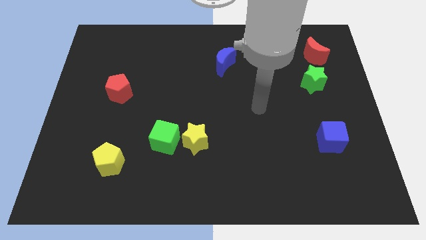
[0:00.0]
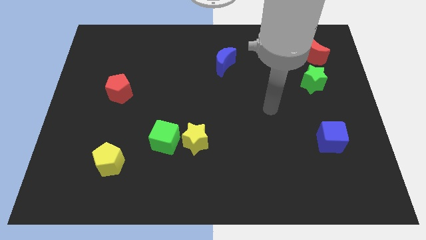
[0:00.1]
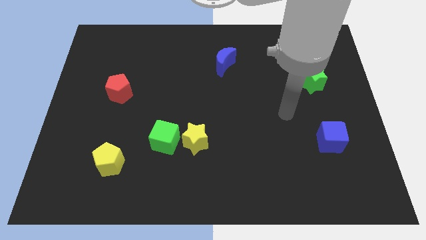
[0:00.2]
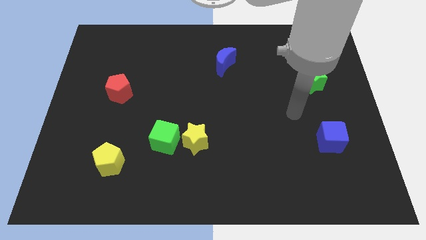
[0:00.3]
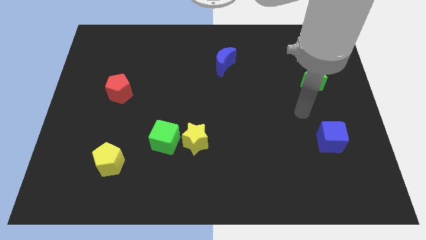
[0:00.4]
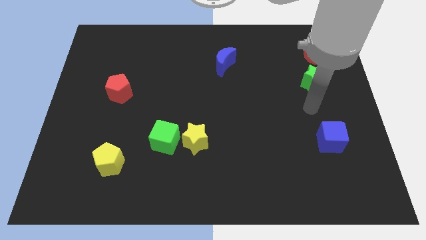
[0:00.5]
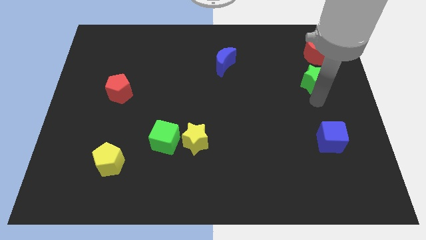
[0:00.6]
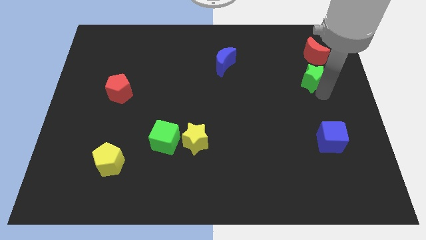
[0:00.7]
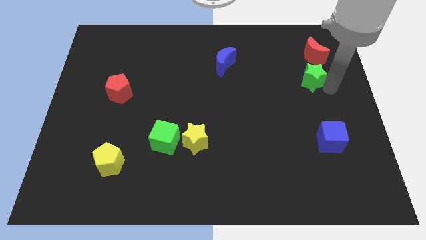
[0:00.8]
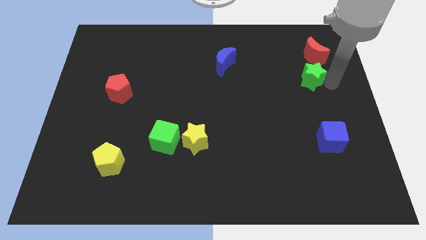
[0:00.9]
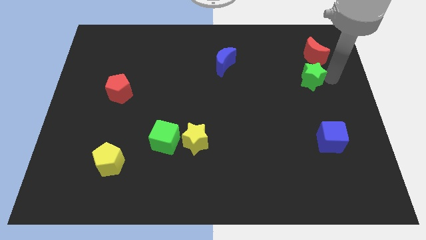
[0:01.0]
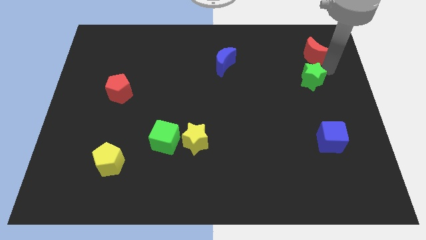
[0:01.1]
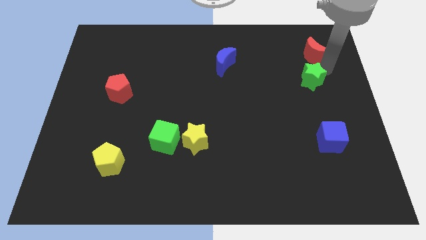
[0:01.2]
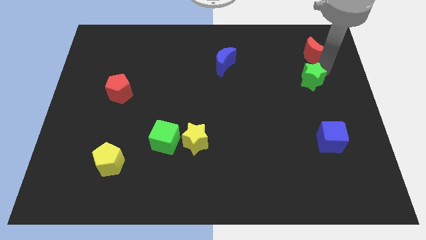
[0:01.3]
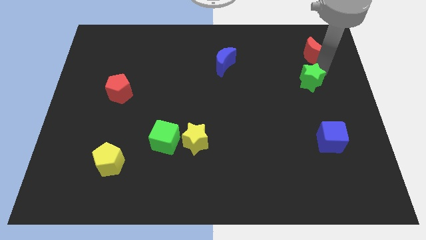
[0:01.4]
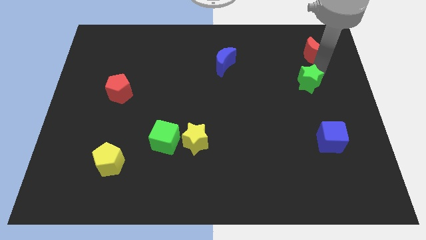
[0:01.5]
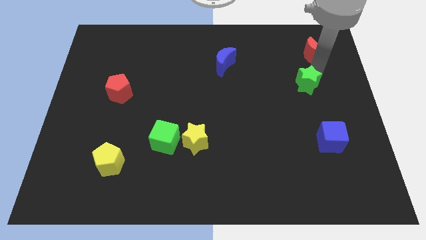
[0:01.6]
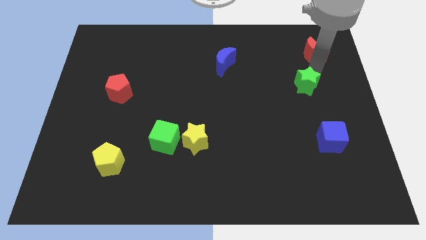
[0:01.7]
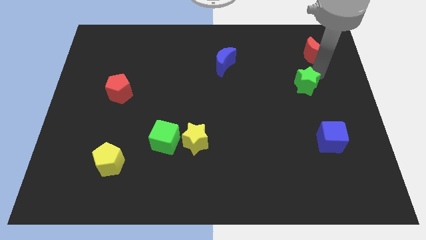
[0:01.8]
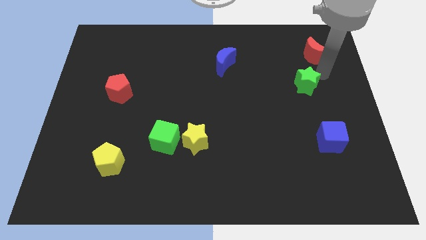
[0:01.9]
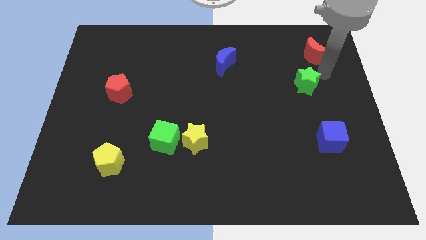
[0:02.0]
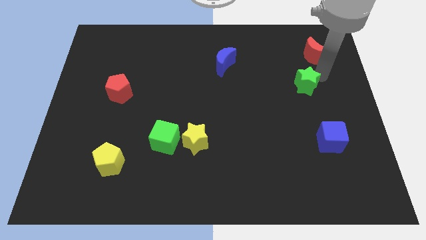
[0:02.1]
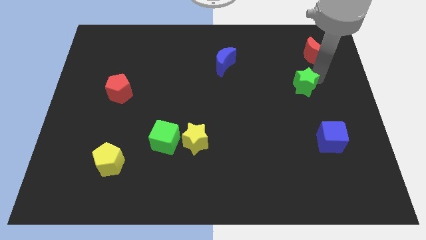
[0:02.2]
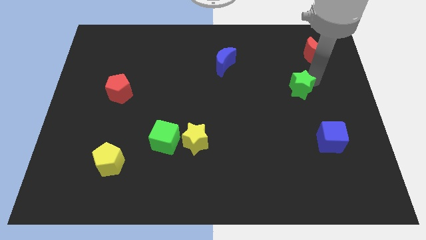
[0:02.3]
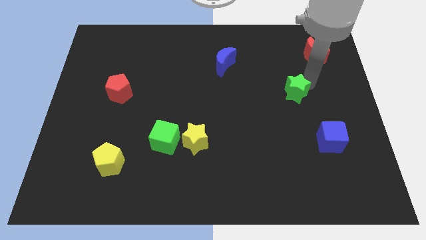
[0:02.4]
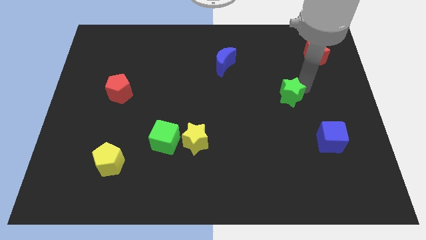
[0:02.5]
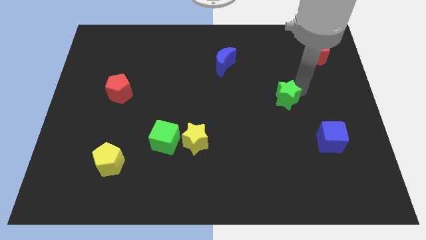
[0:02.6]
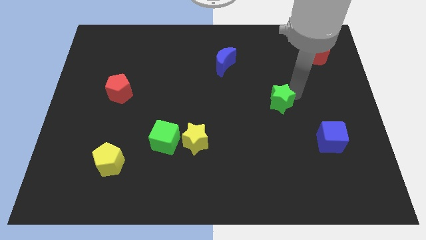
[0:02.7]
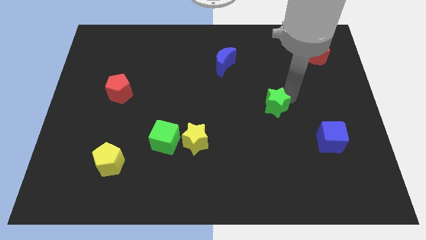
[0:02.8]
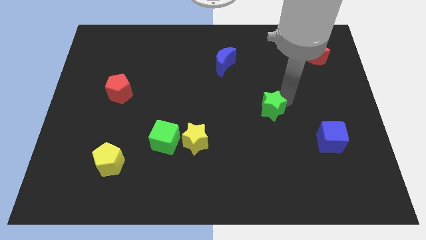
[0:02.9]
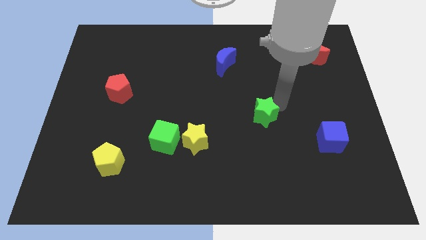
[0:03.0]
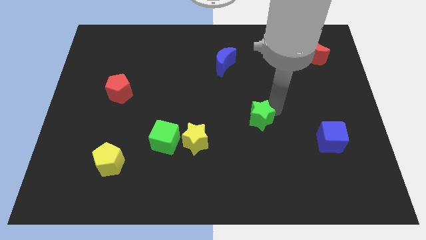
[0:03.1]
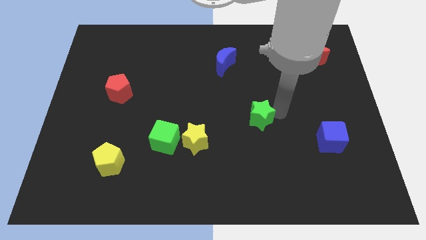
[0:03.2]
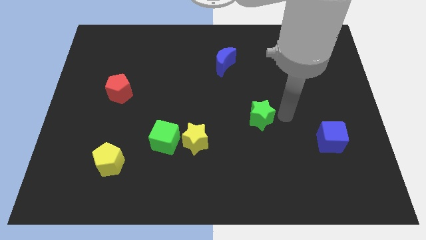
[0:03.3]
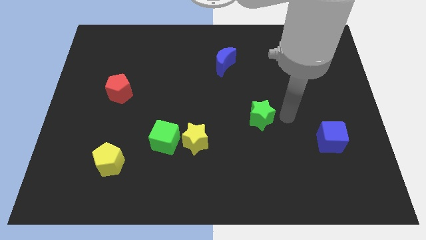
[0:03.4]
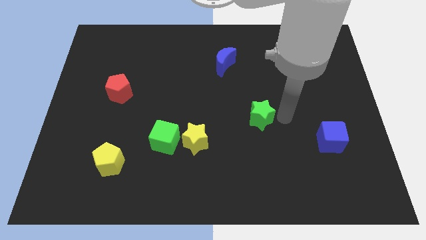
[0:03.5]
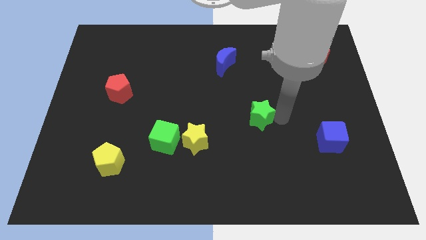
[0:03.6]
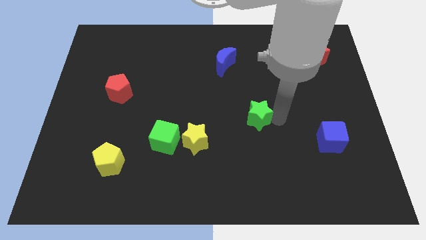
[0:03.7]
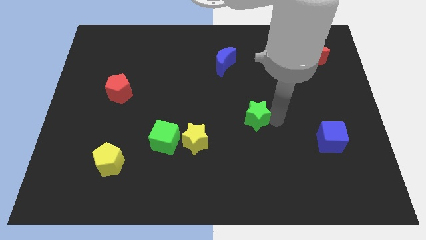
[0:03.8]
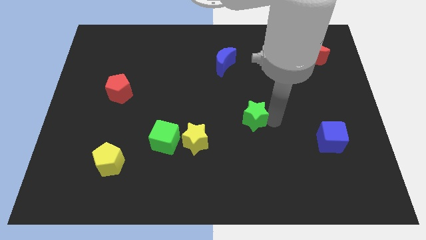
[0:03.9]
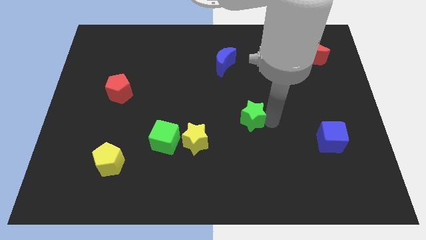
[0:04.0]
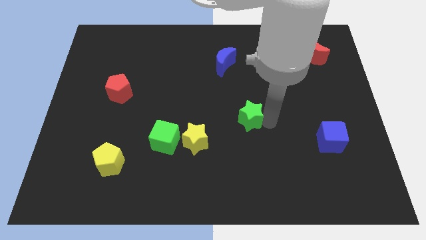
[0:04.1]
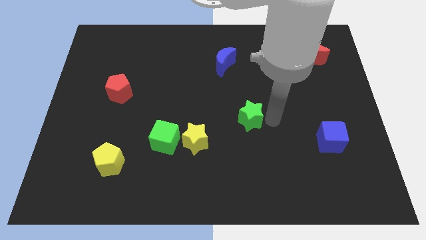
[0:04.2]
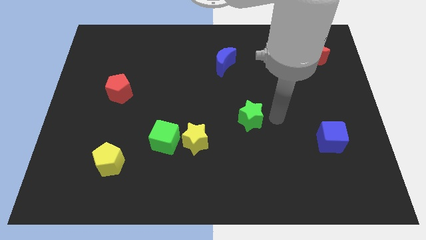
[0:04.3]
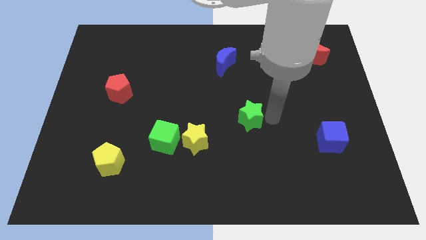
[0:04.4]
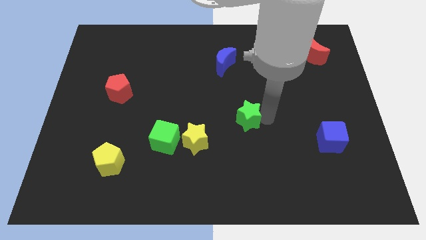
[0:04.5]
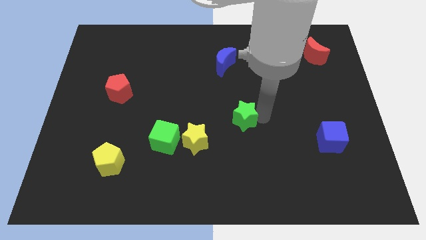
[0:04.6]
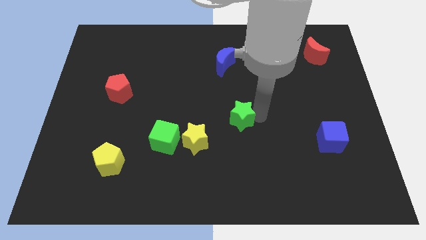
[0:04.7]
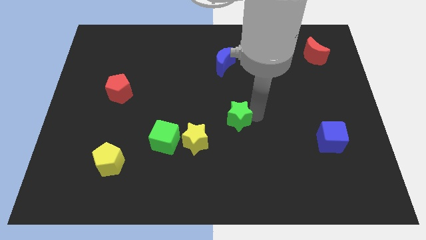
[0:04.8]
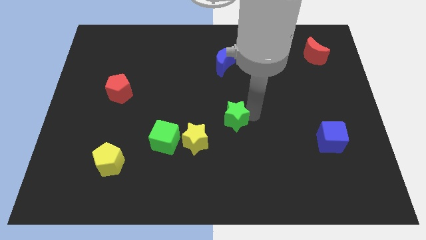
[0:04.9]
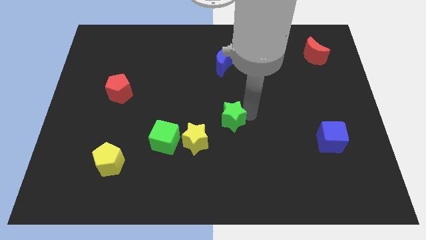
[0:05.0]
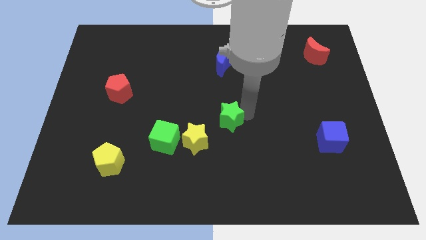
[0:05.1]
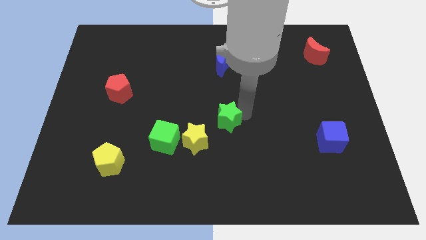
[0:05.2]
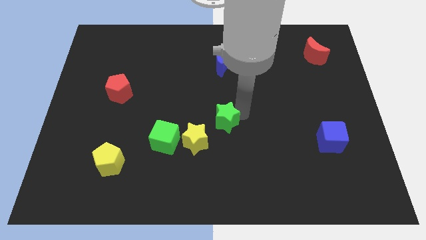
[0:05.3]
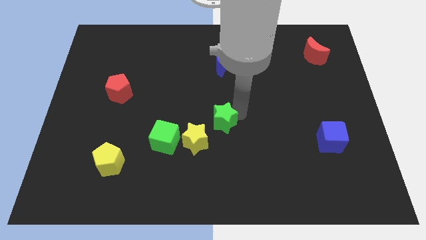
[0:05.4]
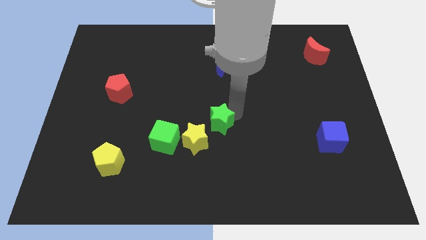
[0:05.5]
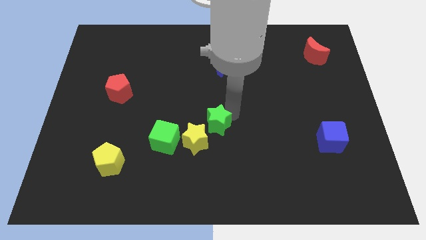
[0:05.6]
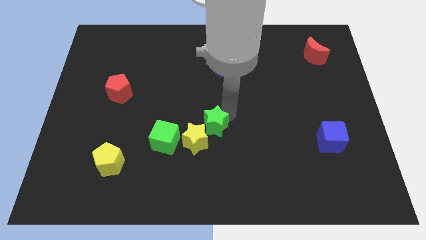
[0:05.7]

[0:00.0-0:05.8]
move the green star towards the yellow star

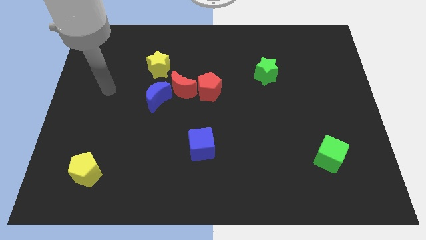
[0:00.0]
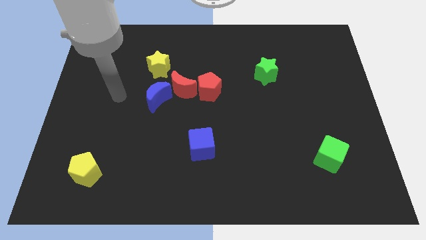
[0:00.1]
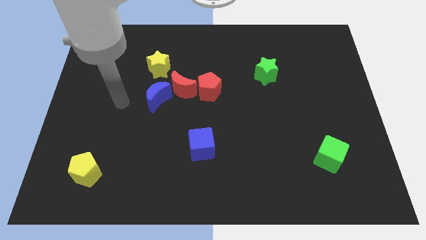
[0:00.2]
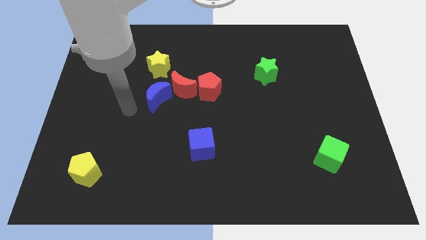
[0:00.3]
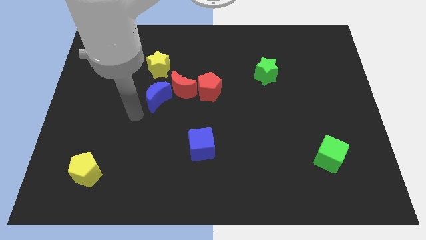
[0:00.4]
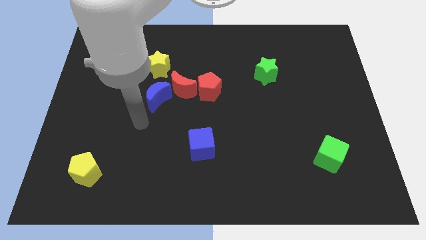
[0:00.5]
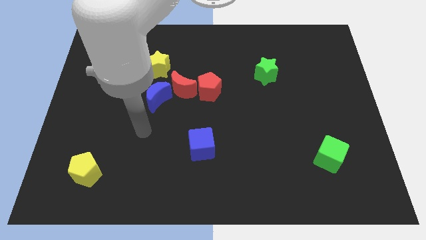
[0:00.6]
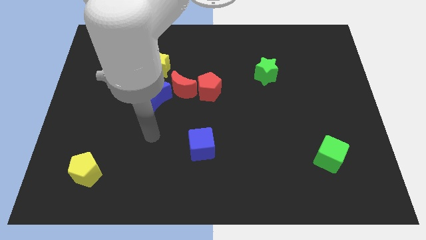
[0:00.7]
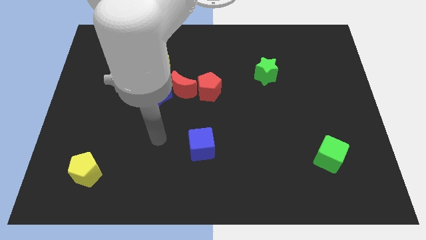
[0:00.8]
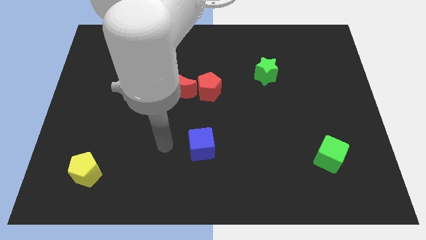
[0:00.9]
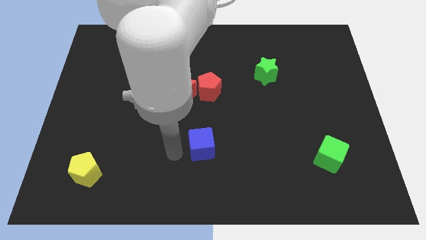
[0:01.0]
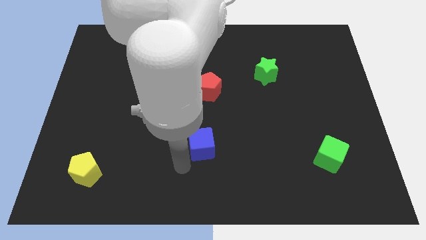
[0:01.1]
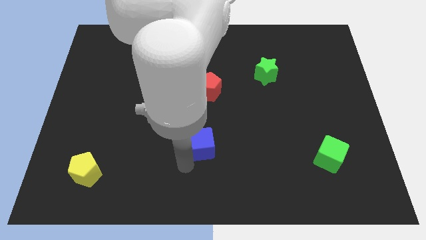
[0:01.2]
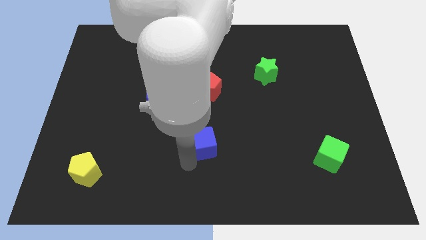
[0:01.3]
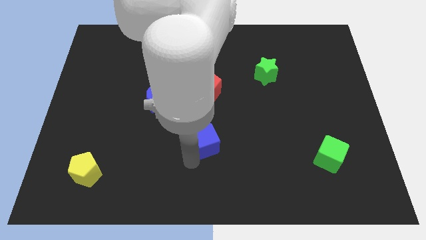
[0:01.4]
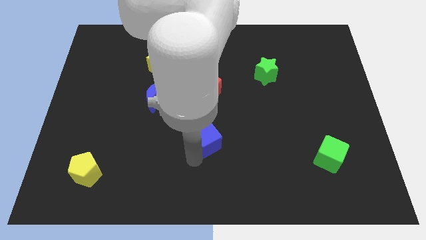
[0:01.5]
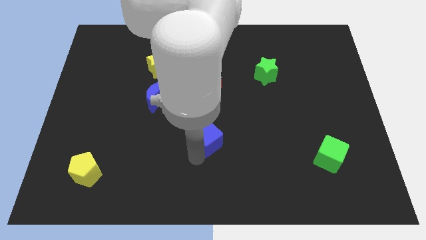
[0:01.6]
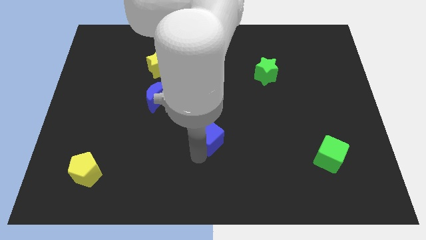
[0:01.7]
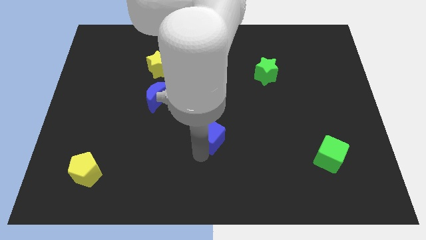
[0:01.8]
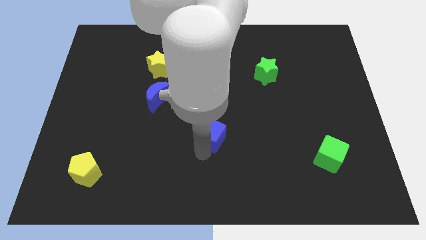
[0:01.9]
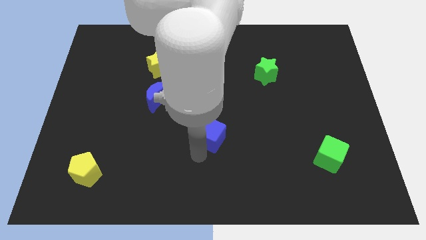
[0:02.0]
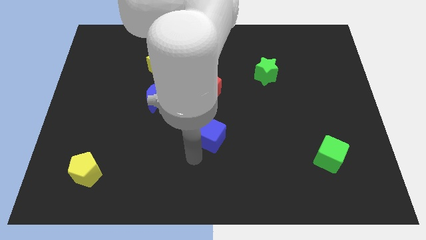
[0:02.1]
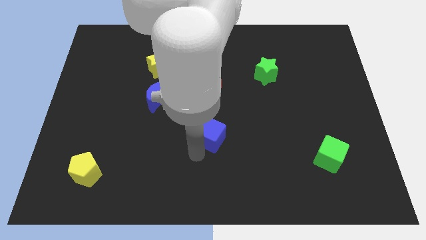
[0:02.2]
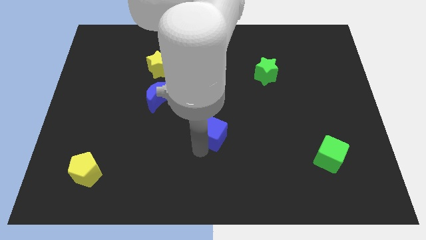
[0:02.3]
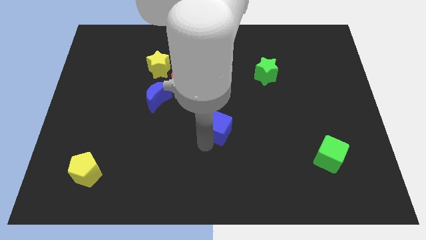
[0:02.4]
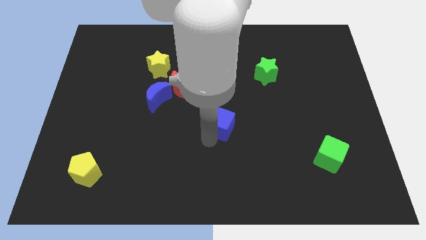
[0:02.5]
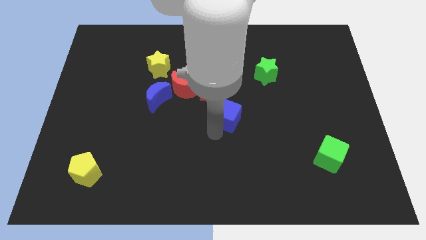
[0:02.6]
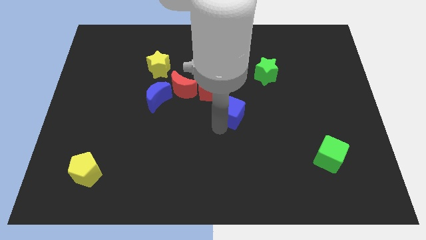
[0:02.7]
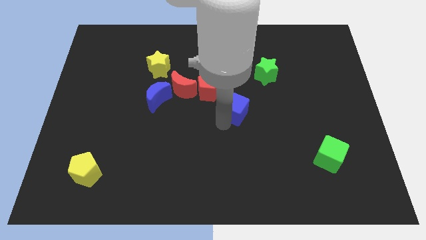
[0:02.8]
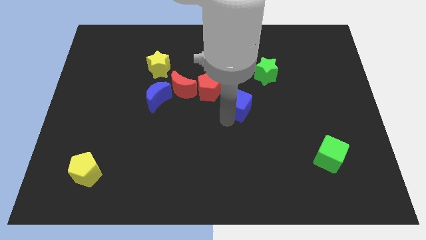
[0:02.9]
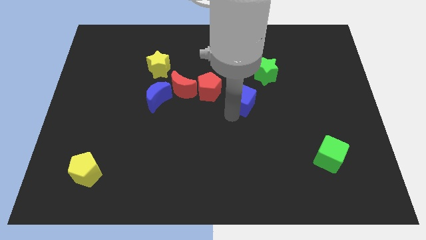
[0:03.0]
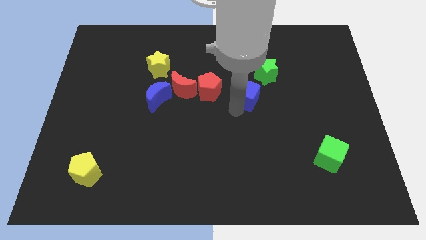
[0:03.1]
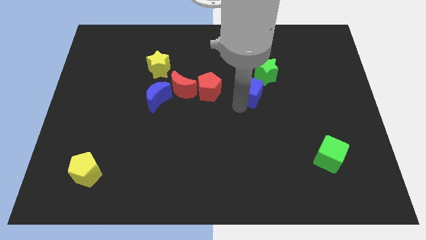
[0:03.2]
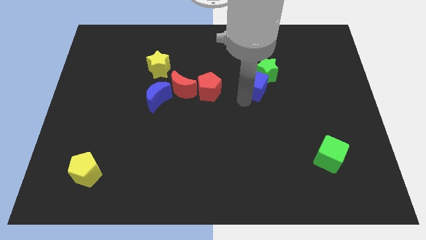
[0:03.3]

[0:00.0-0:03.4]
push the blue cube close to the green star
